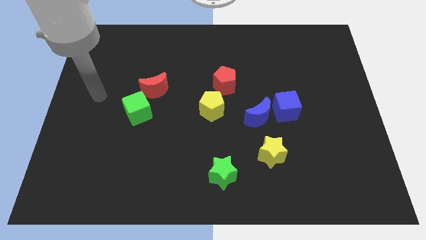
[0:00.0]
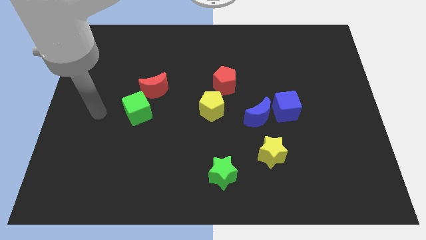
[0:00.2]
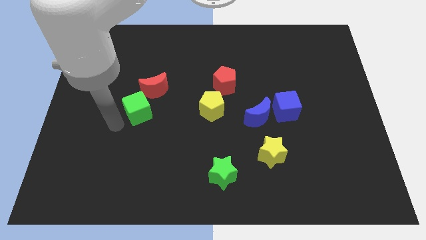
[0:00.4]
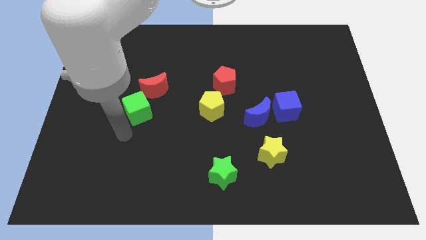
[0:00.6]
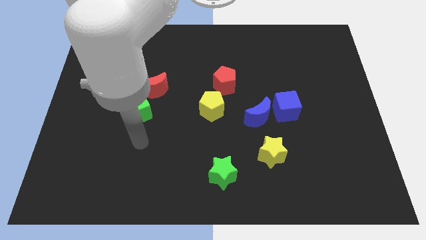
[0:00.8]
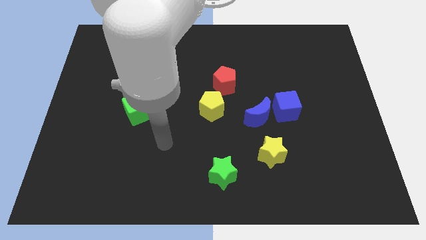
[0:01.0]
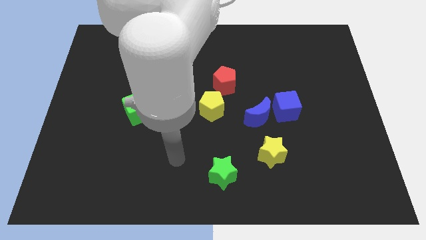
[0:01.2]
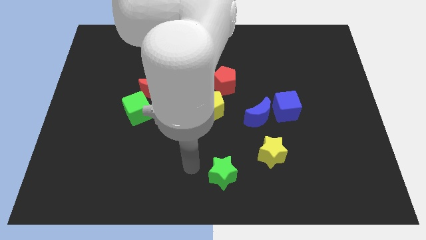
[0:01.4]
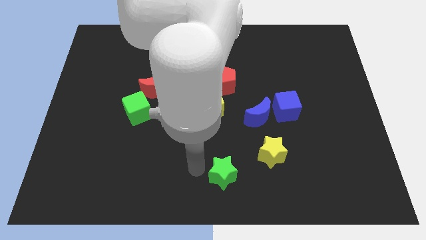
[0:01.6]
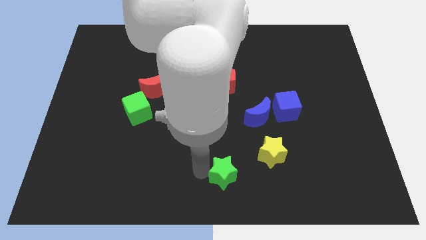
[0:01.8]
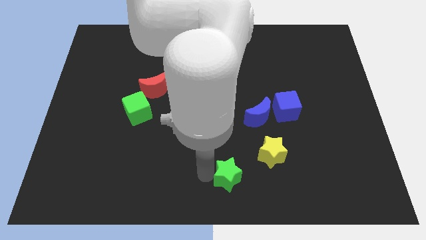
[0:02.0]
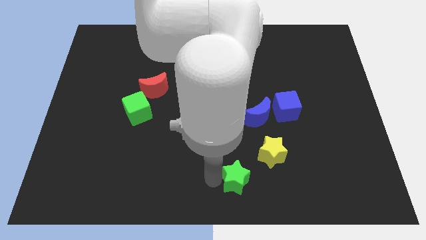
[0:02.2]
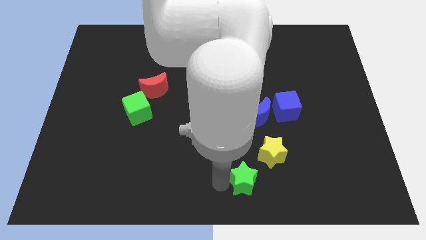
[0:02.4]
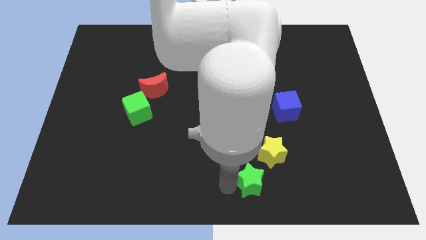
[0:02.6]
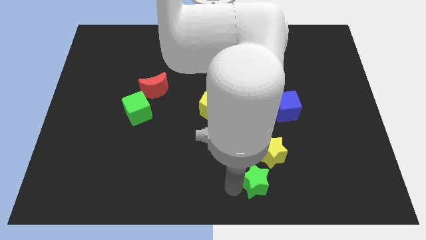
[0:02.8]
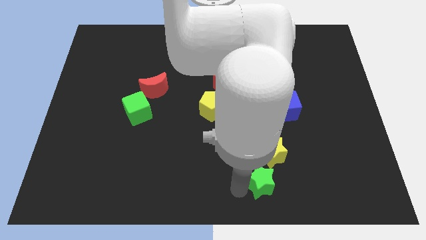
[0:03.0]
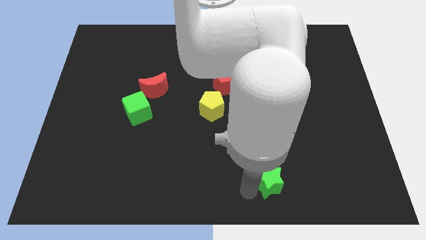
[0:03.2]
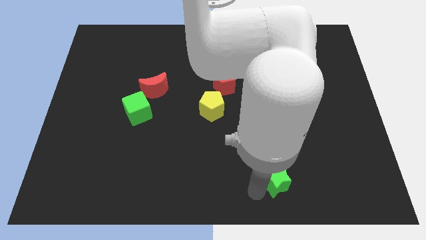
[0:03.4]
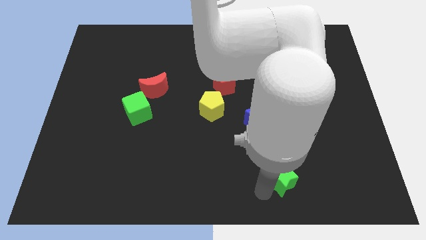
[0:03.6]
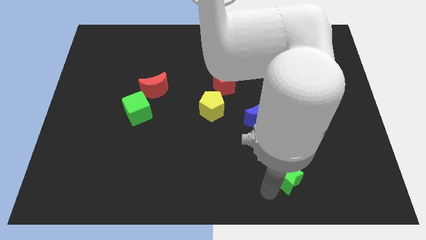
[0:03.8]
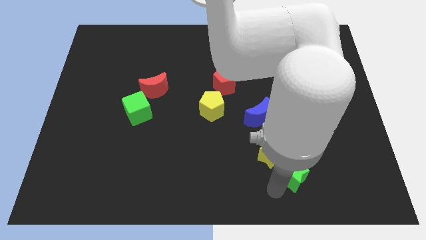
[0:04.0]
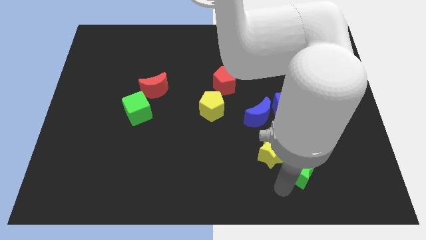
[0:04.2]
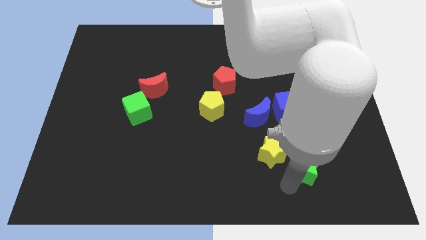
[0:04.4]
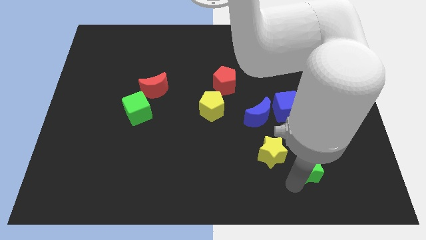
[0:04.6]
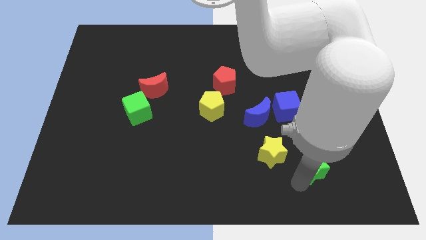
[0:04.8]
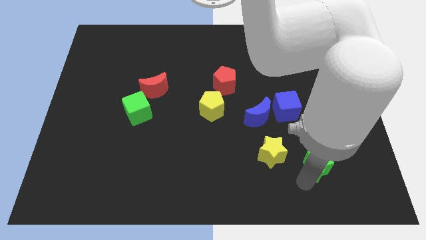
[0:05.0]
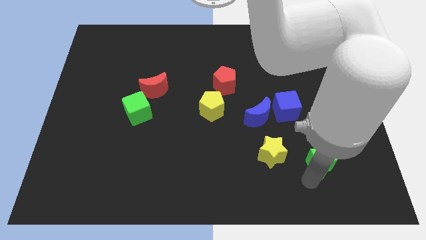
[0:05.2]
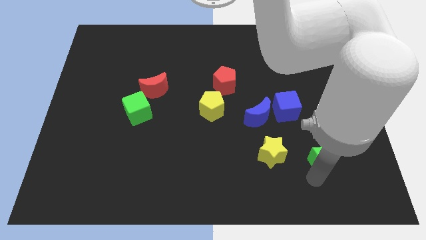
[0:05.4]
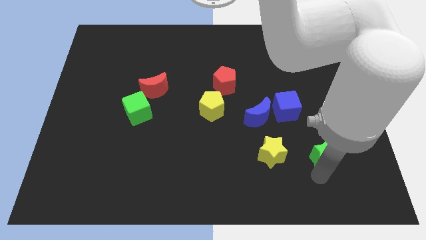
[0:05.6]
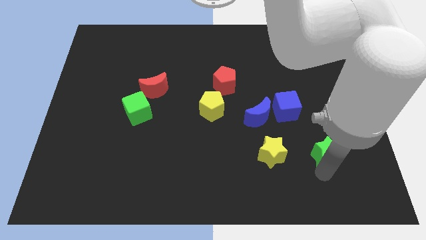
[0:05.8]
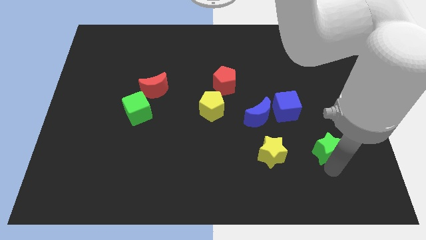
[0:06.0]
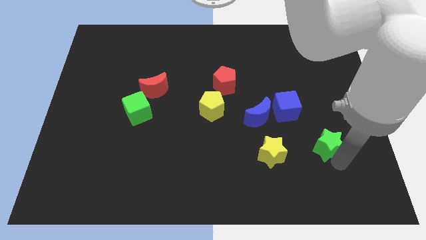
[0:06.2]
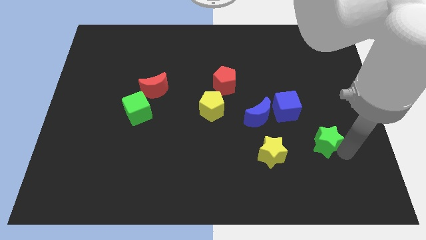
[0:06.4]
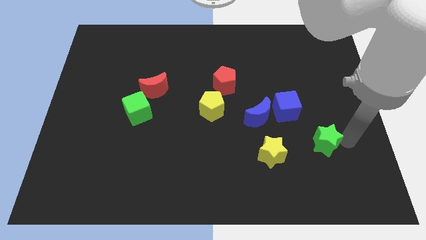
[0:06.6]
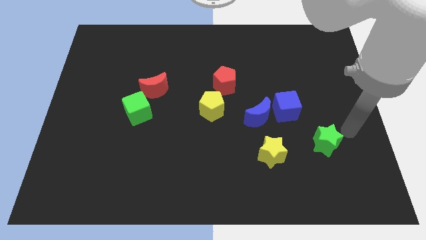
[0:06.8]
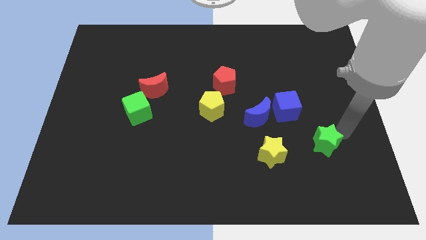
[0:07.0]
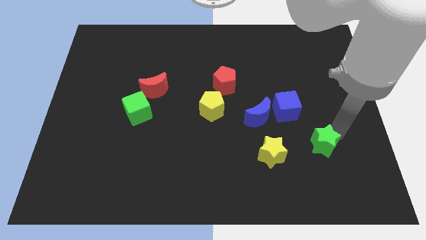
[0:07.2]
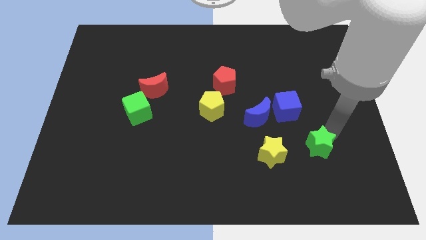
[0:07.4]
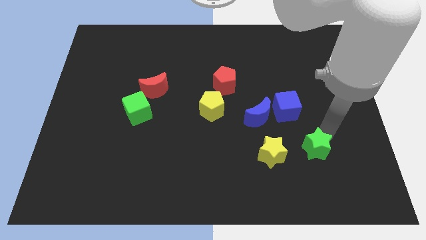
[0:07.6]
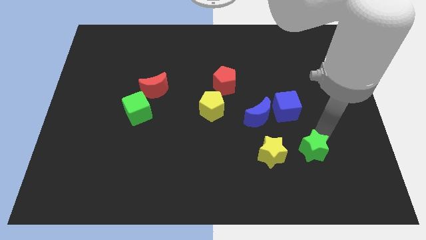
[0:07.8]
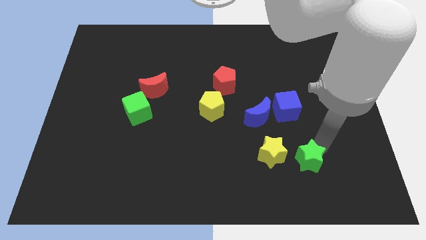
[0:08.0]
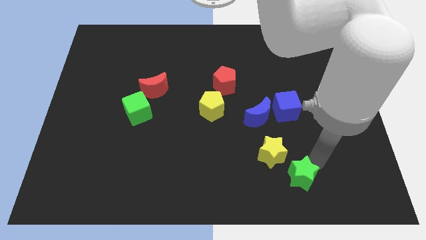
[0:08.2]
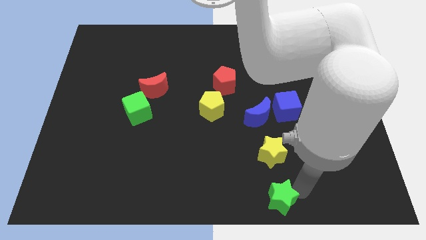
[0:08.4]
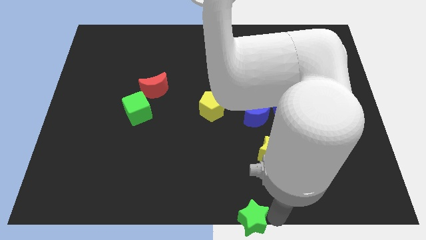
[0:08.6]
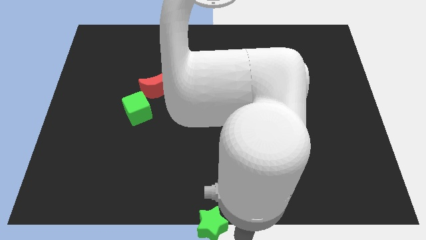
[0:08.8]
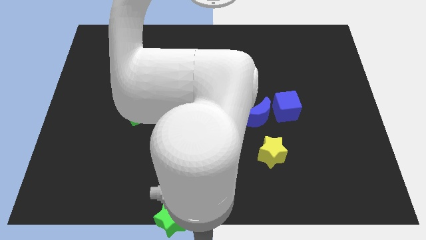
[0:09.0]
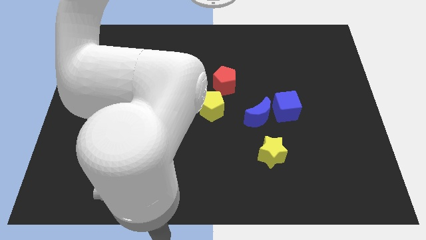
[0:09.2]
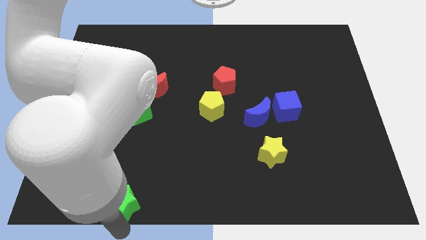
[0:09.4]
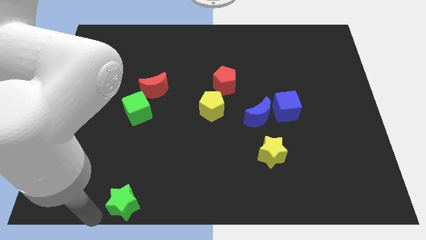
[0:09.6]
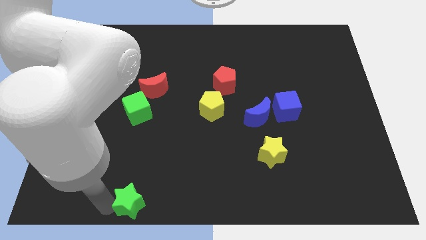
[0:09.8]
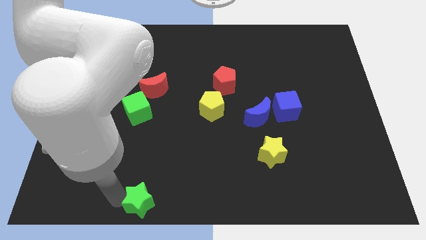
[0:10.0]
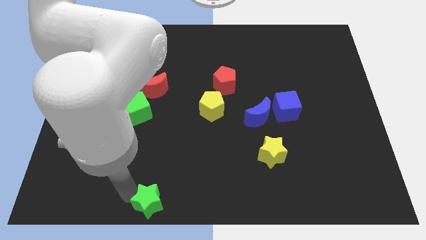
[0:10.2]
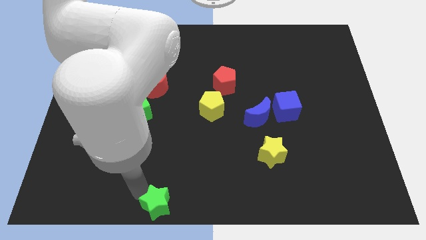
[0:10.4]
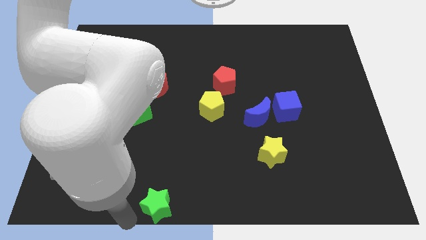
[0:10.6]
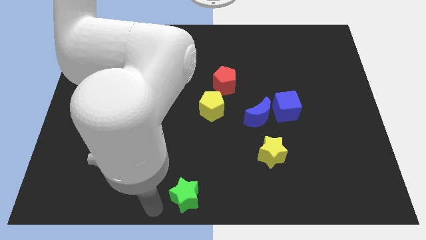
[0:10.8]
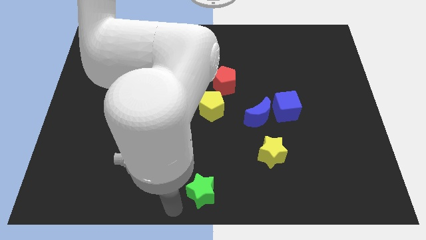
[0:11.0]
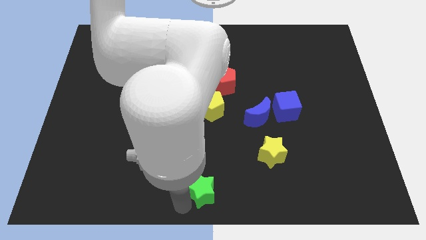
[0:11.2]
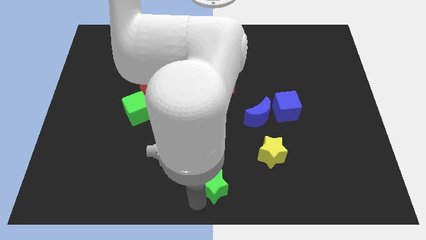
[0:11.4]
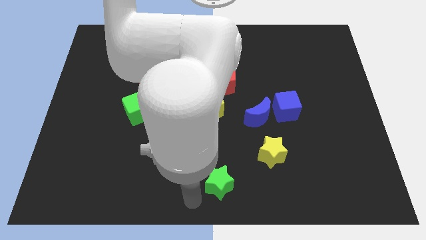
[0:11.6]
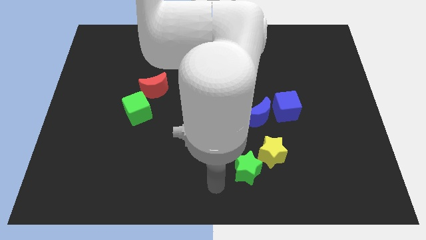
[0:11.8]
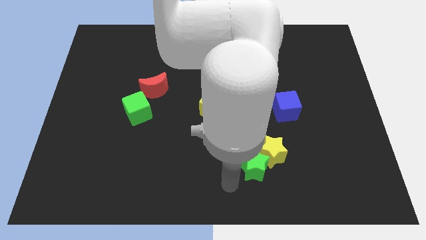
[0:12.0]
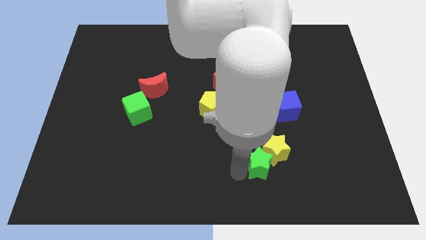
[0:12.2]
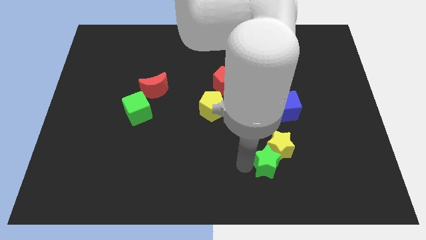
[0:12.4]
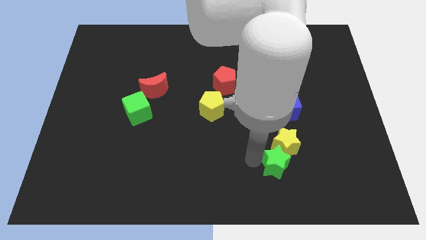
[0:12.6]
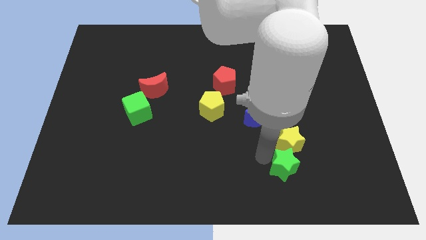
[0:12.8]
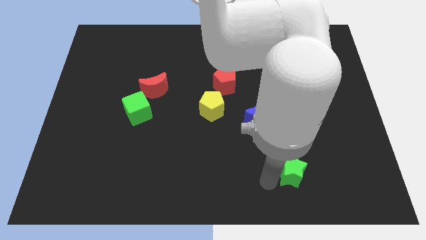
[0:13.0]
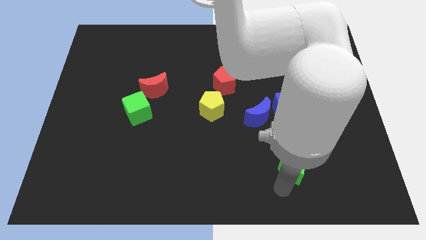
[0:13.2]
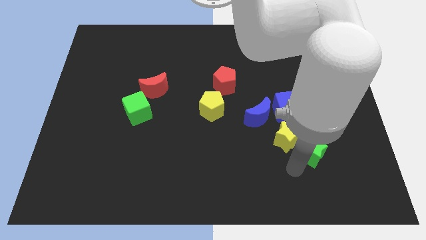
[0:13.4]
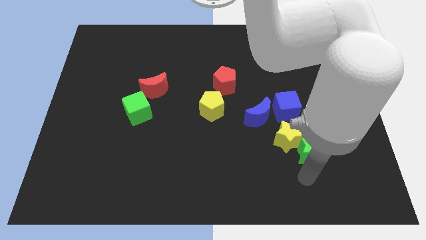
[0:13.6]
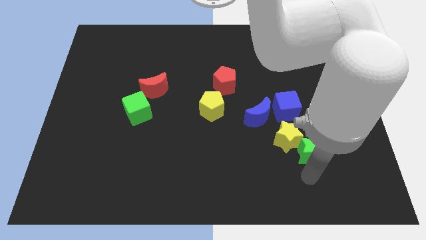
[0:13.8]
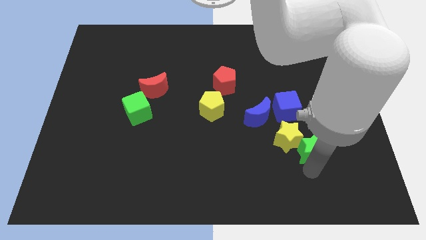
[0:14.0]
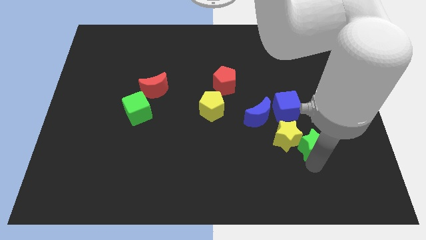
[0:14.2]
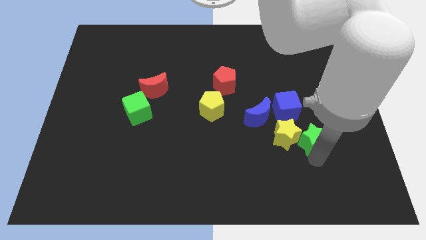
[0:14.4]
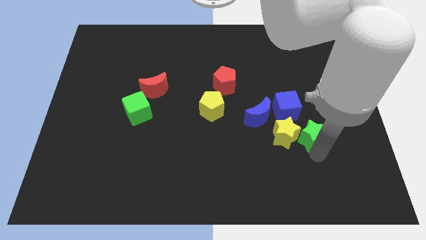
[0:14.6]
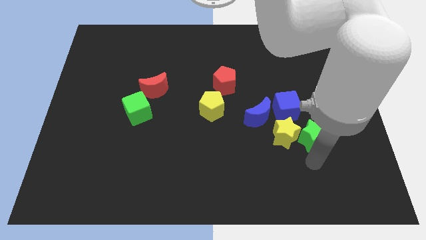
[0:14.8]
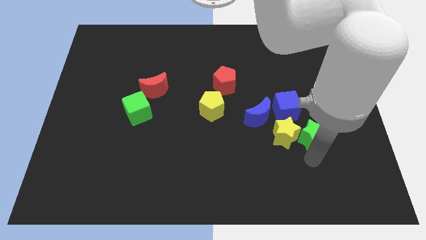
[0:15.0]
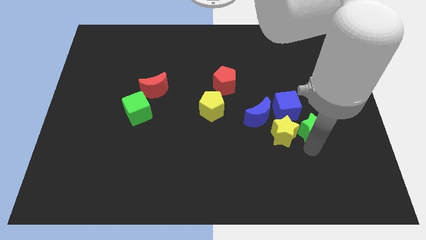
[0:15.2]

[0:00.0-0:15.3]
move the green star diagonally up and to the right

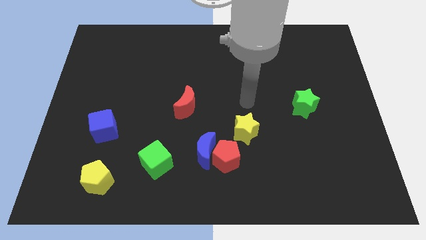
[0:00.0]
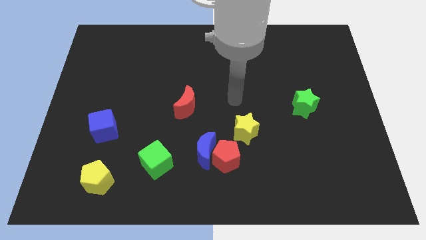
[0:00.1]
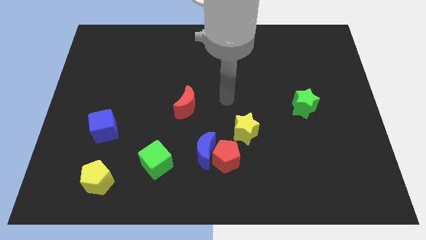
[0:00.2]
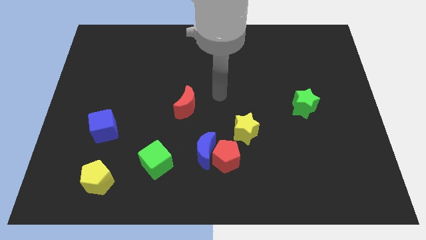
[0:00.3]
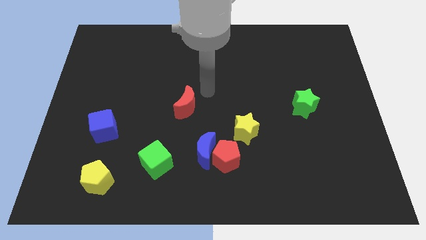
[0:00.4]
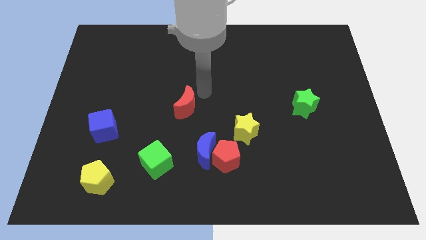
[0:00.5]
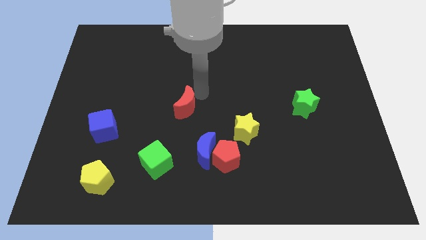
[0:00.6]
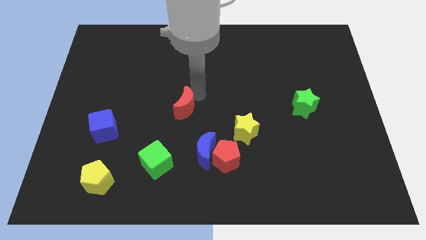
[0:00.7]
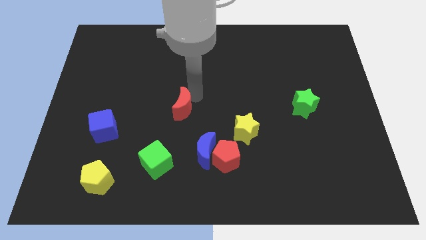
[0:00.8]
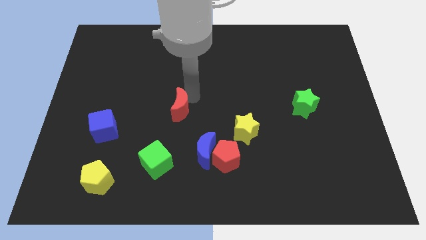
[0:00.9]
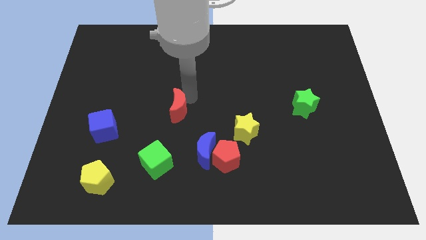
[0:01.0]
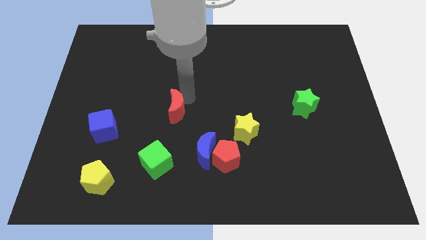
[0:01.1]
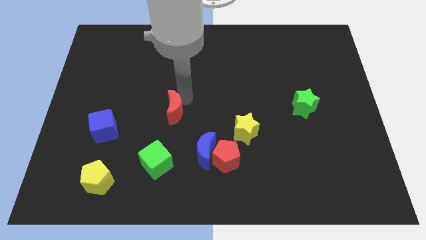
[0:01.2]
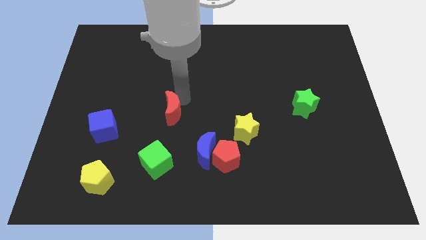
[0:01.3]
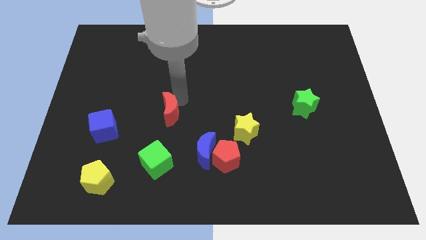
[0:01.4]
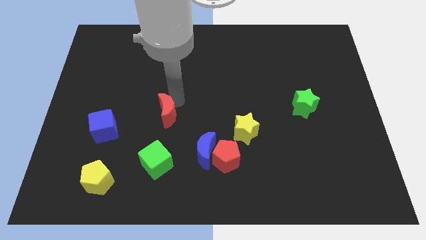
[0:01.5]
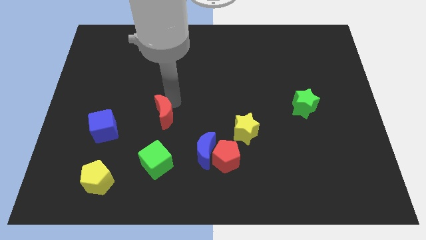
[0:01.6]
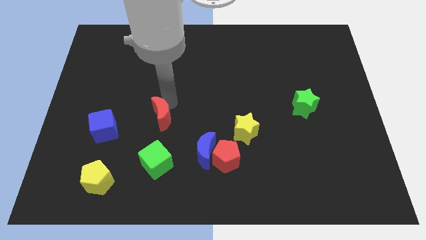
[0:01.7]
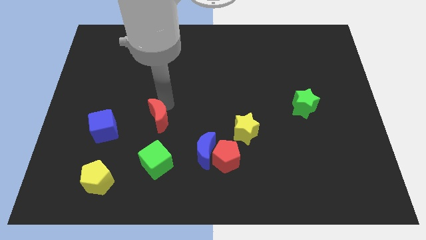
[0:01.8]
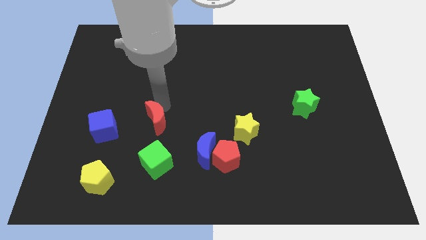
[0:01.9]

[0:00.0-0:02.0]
slide the red moon down and to the left diagonally slightly
